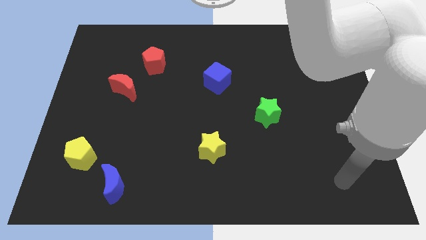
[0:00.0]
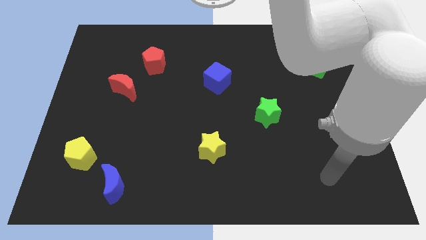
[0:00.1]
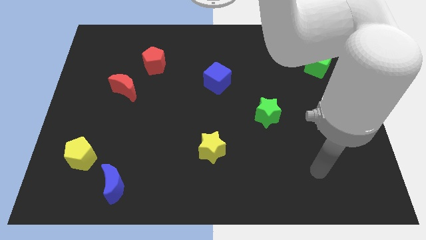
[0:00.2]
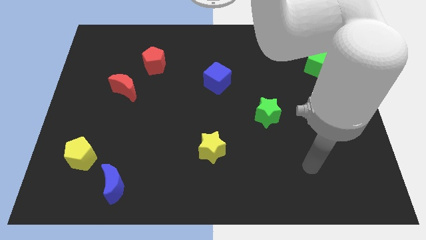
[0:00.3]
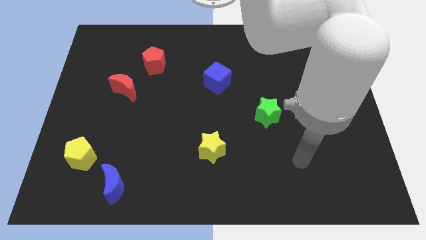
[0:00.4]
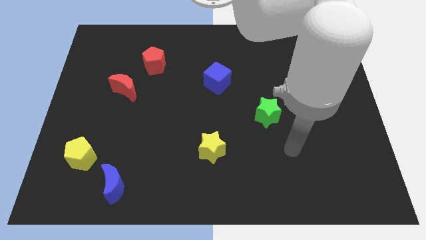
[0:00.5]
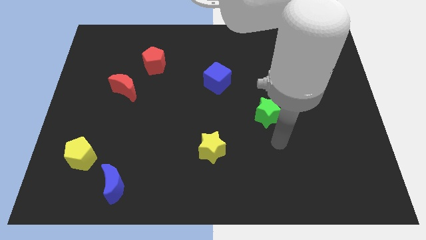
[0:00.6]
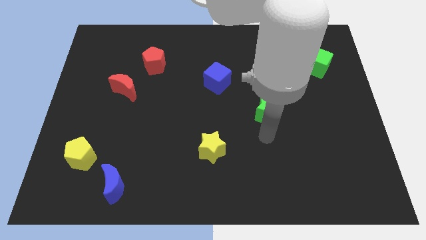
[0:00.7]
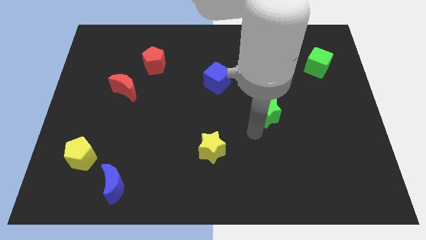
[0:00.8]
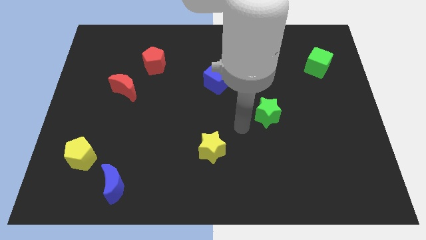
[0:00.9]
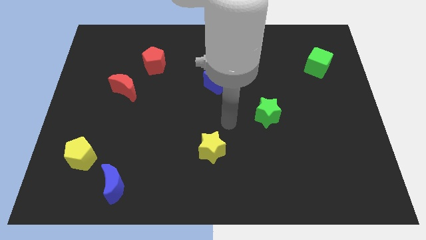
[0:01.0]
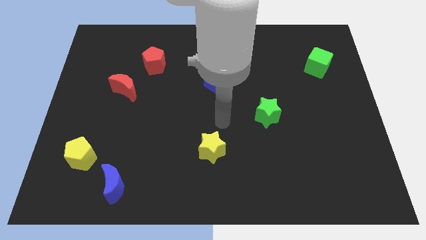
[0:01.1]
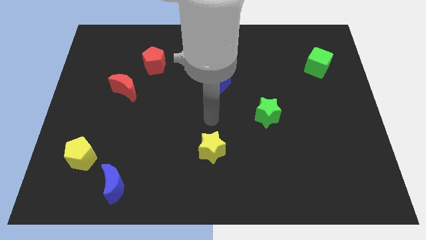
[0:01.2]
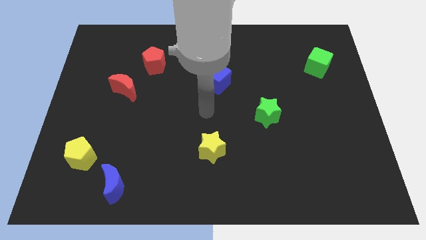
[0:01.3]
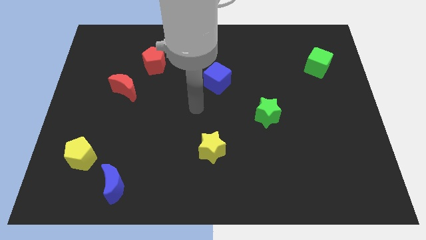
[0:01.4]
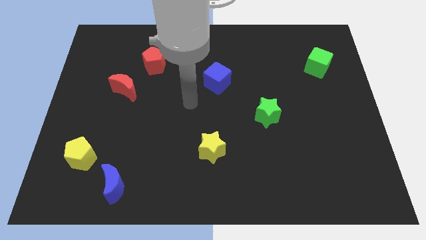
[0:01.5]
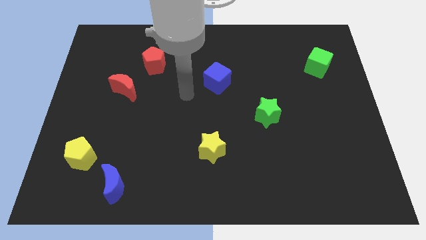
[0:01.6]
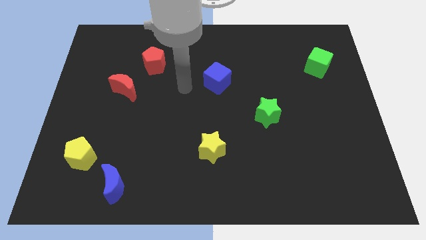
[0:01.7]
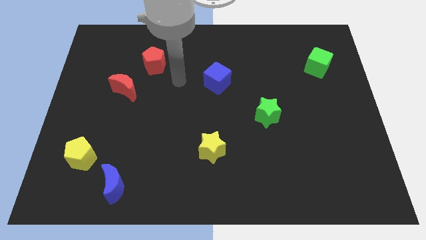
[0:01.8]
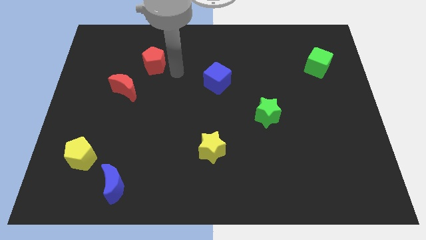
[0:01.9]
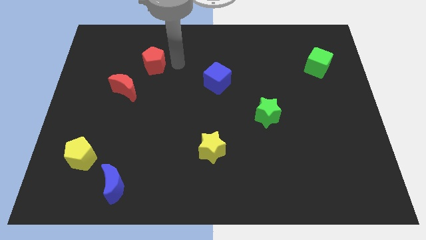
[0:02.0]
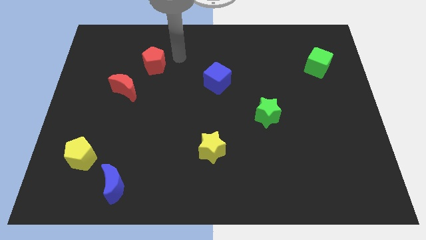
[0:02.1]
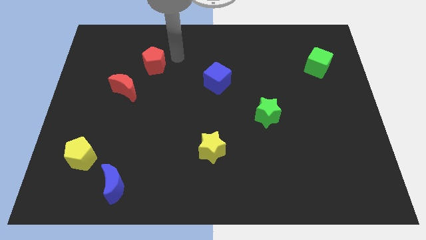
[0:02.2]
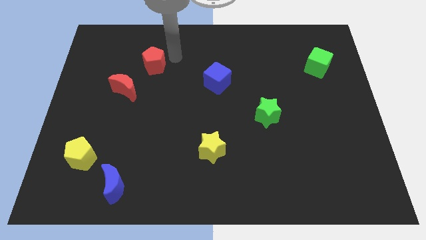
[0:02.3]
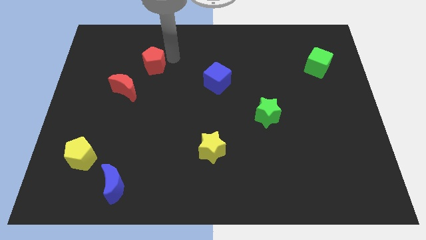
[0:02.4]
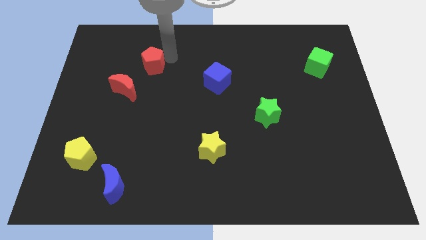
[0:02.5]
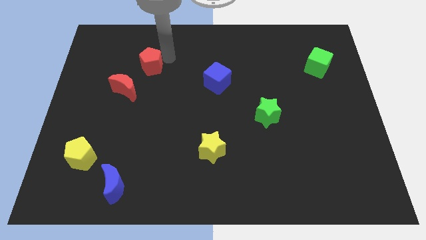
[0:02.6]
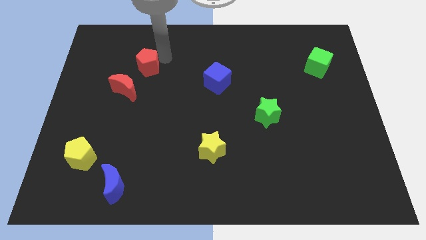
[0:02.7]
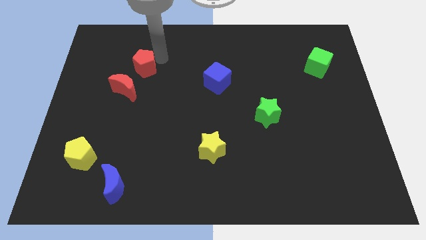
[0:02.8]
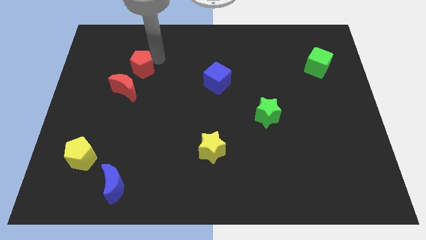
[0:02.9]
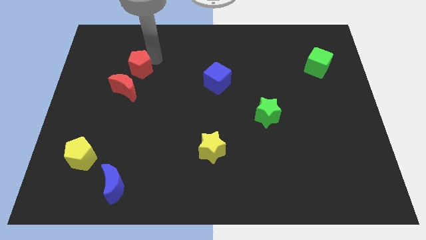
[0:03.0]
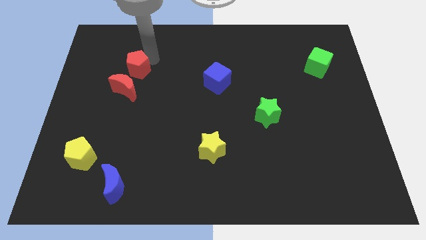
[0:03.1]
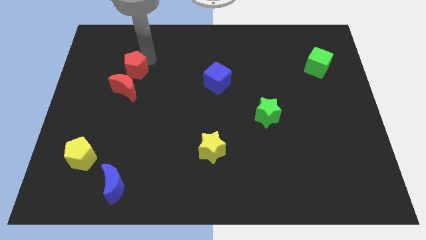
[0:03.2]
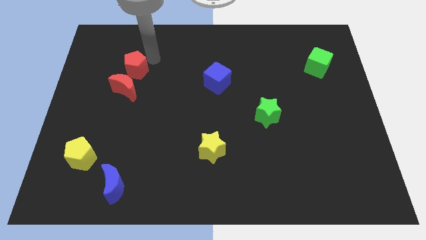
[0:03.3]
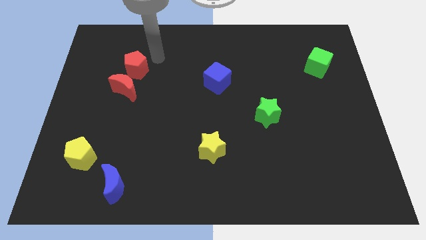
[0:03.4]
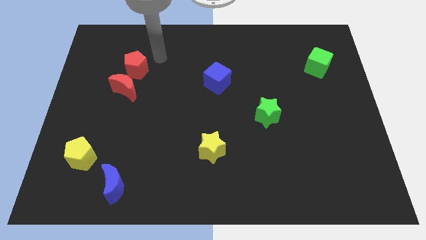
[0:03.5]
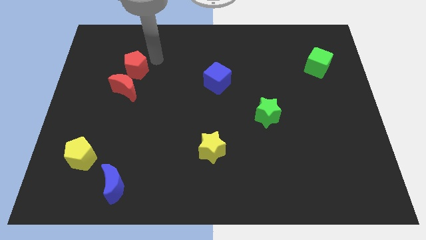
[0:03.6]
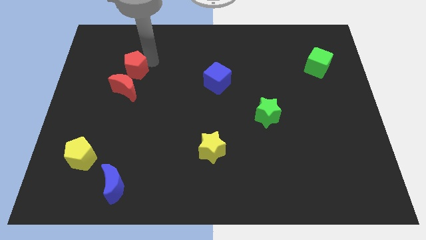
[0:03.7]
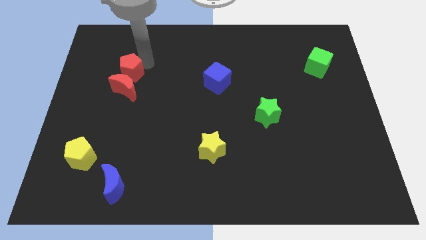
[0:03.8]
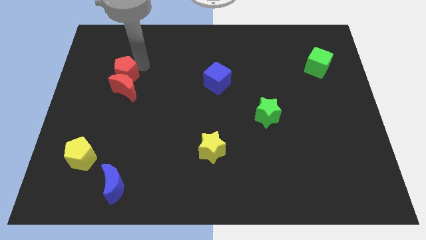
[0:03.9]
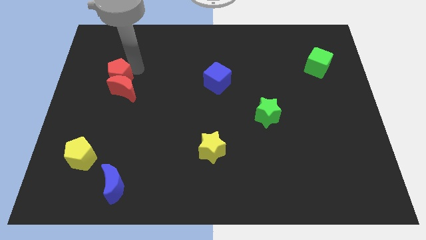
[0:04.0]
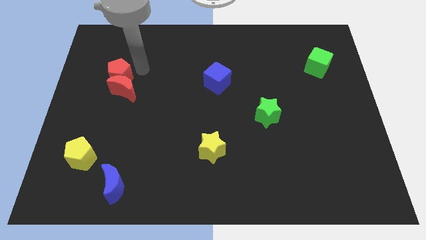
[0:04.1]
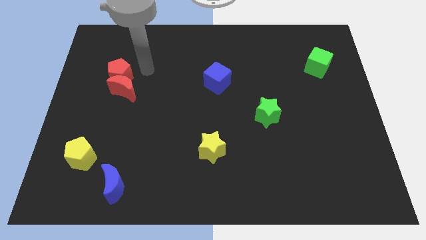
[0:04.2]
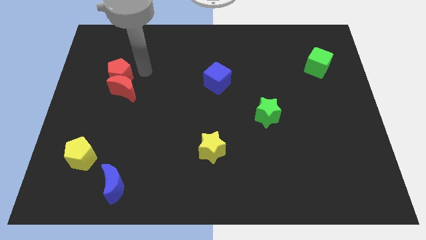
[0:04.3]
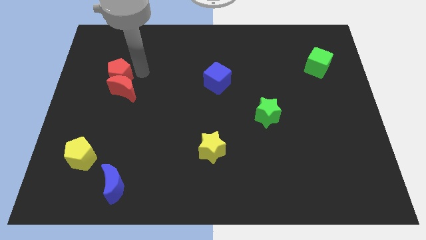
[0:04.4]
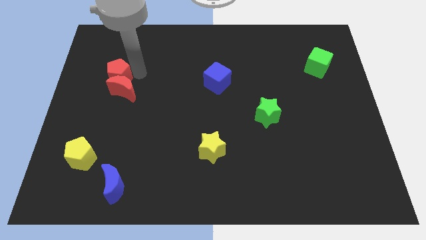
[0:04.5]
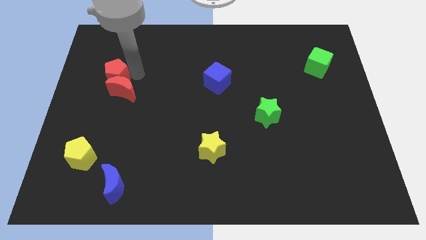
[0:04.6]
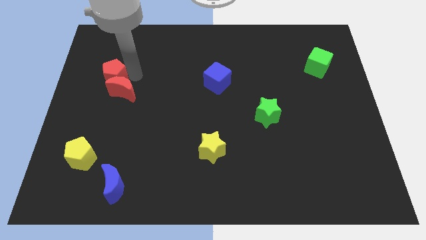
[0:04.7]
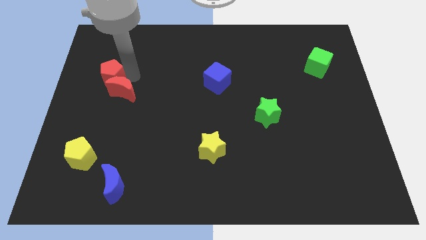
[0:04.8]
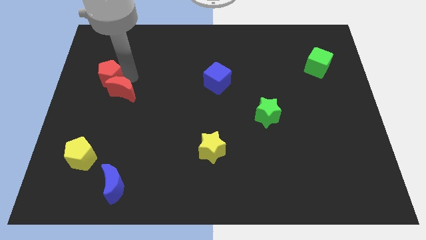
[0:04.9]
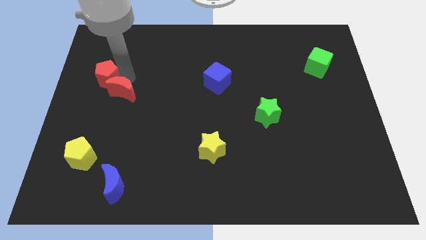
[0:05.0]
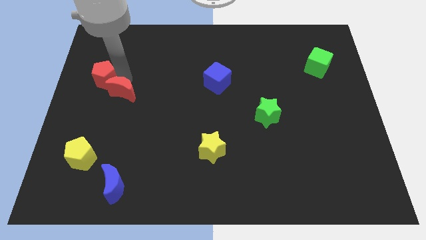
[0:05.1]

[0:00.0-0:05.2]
slide the red pentagon to the left side of the board

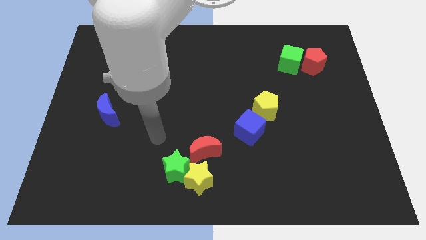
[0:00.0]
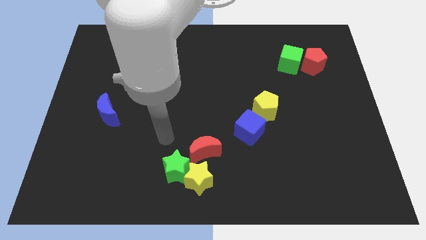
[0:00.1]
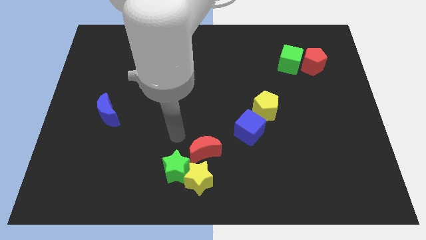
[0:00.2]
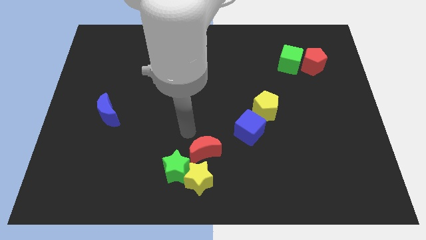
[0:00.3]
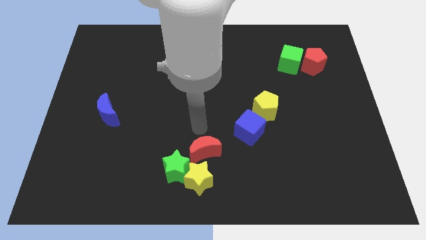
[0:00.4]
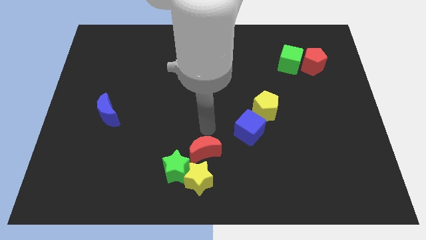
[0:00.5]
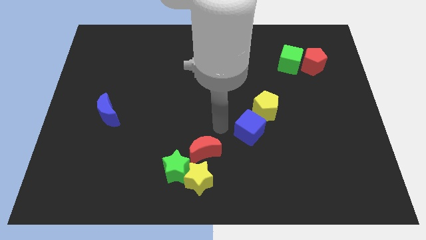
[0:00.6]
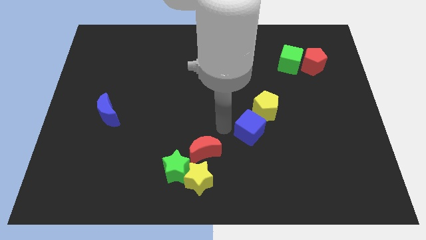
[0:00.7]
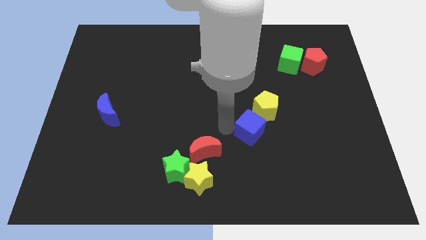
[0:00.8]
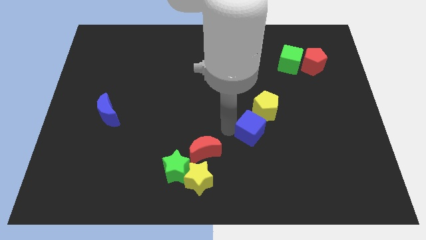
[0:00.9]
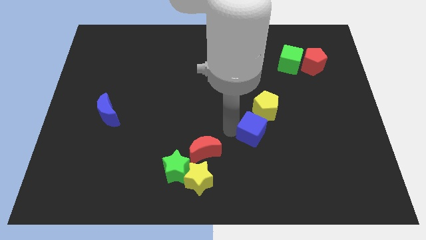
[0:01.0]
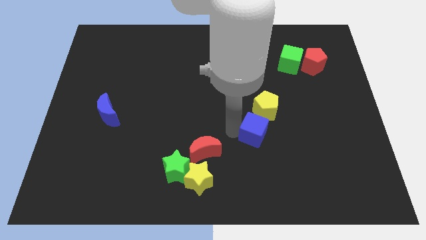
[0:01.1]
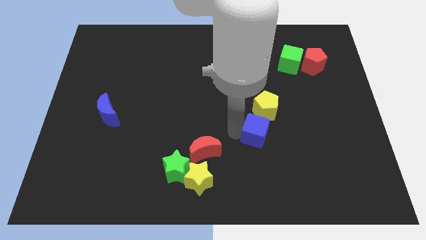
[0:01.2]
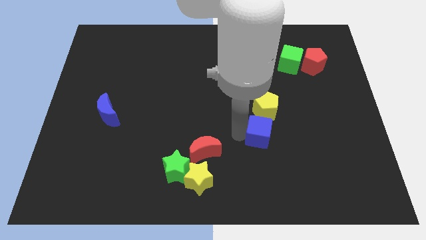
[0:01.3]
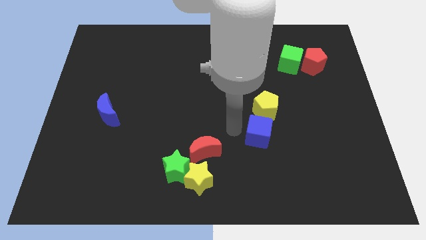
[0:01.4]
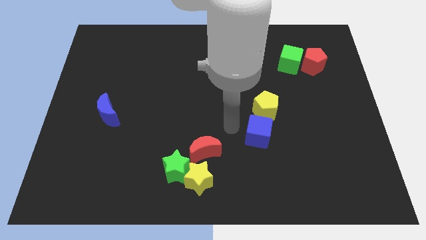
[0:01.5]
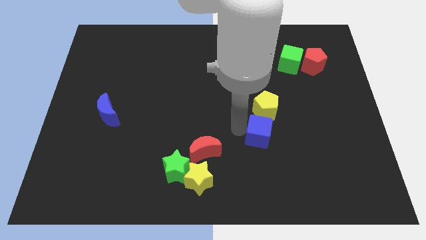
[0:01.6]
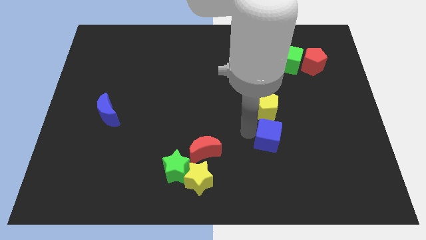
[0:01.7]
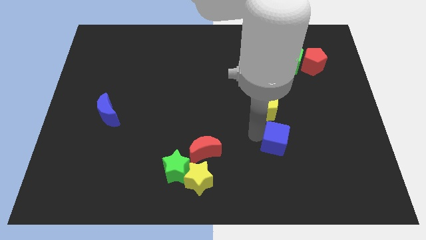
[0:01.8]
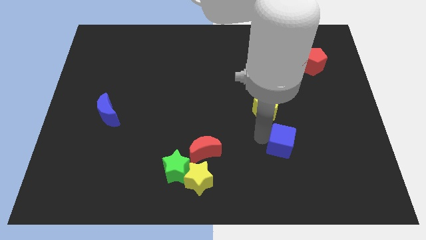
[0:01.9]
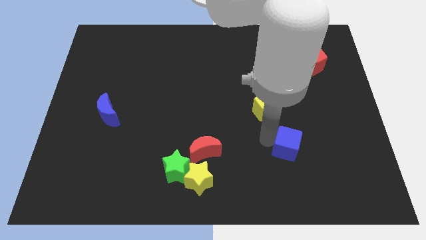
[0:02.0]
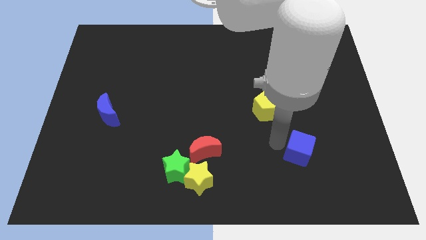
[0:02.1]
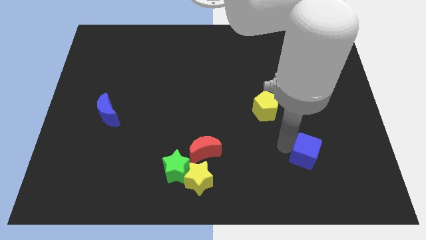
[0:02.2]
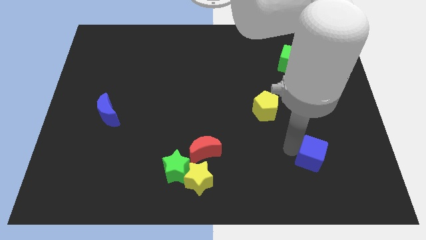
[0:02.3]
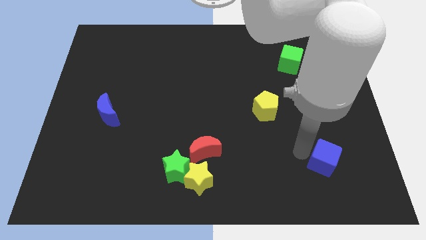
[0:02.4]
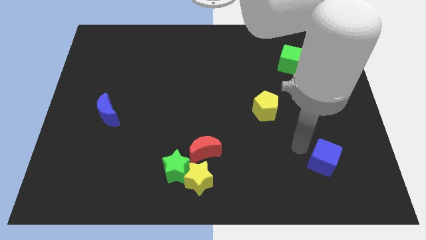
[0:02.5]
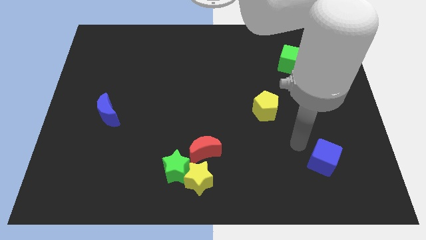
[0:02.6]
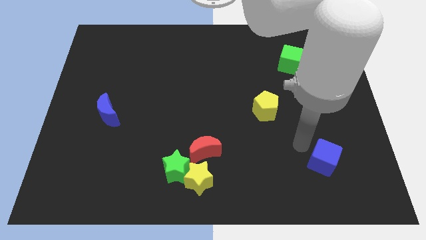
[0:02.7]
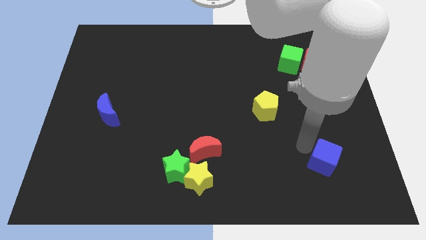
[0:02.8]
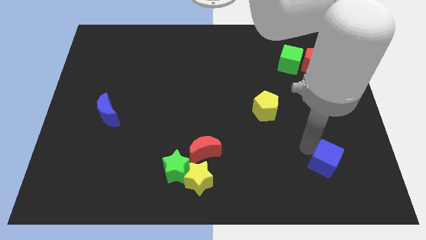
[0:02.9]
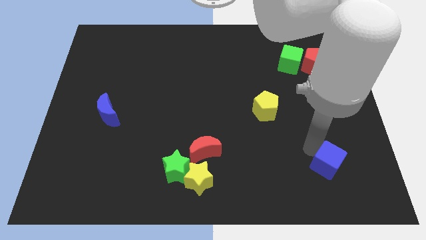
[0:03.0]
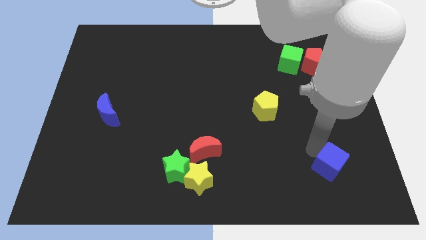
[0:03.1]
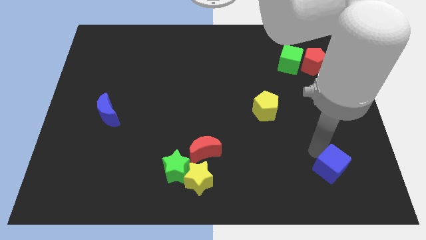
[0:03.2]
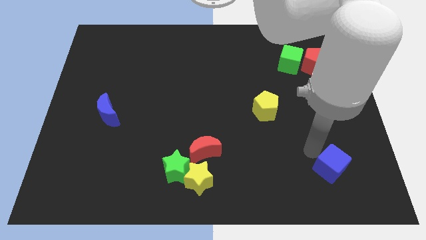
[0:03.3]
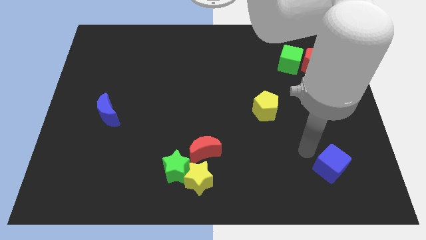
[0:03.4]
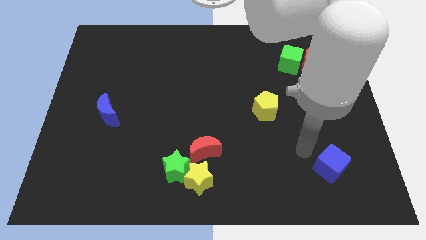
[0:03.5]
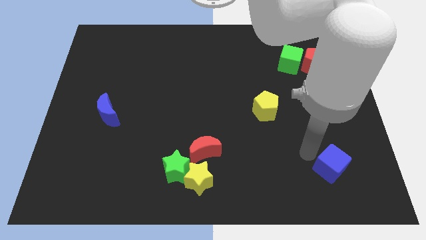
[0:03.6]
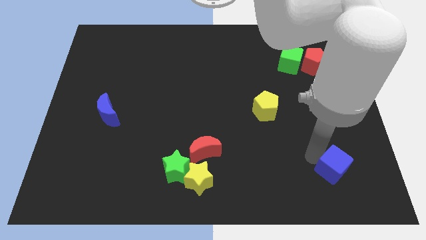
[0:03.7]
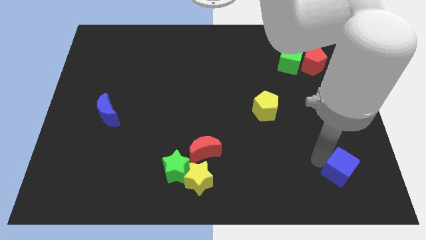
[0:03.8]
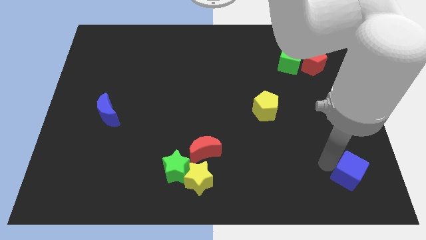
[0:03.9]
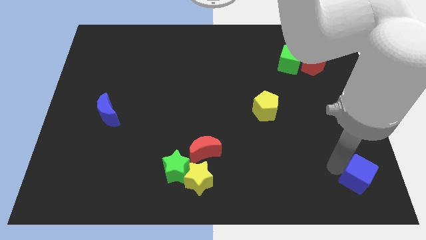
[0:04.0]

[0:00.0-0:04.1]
put the blue cube to the lower right corner
